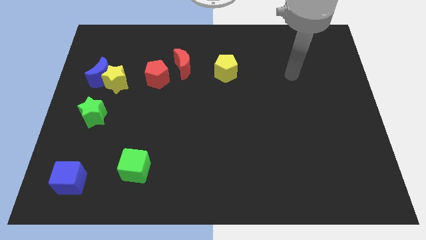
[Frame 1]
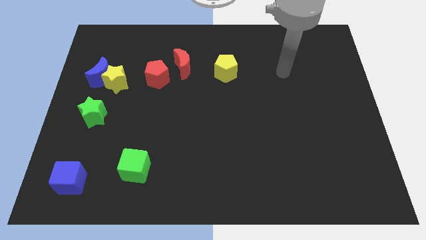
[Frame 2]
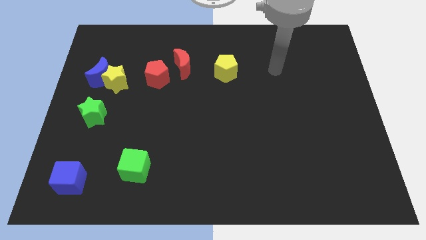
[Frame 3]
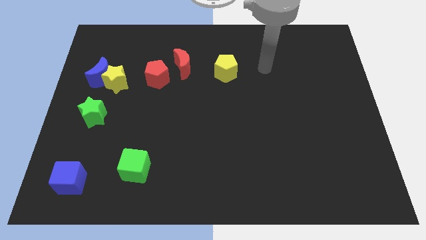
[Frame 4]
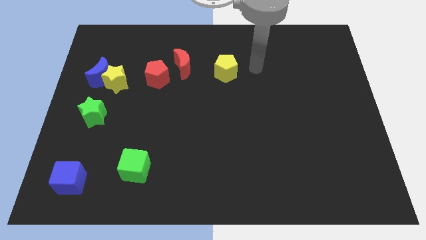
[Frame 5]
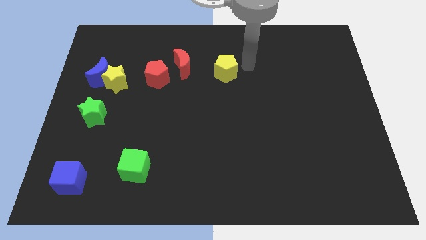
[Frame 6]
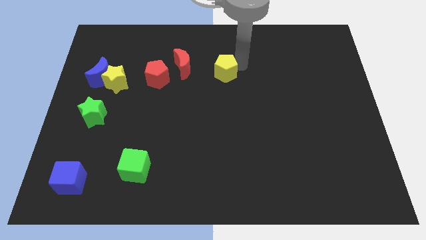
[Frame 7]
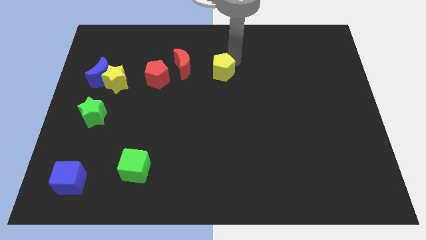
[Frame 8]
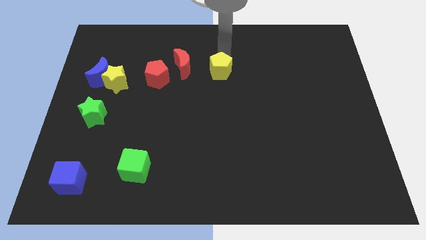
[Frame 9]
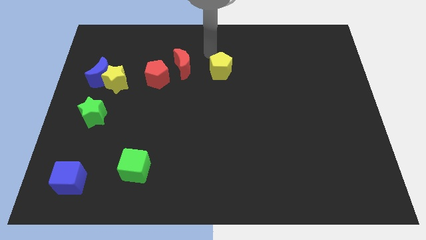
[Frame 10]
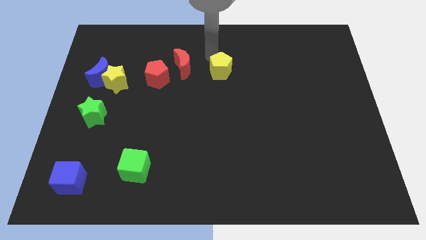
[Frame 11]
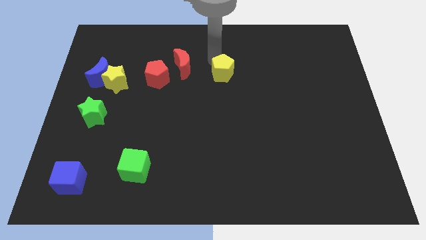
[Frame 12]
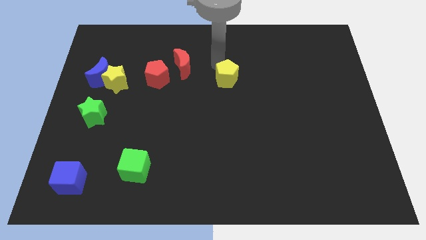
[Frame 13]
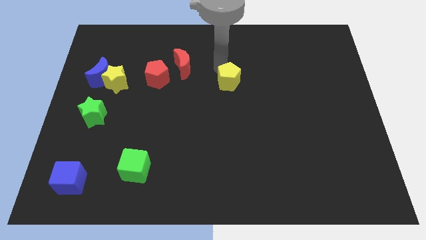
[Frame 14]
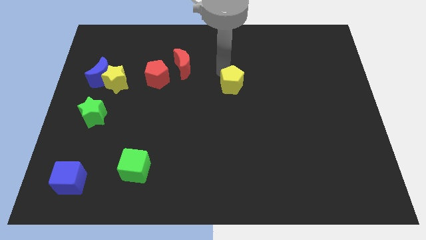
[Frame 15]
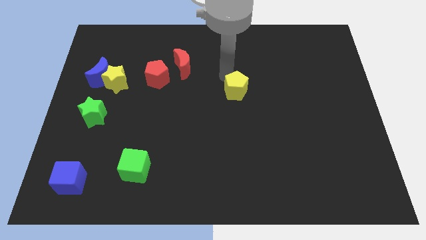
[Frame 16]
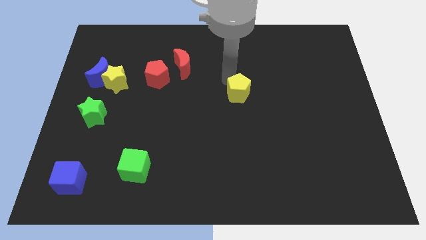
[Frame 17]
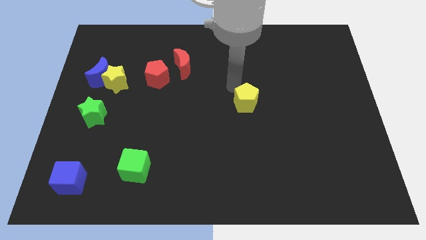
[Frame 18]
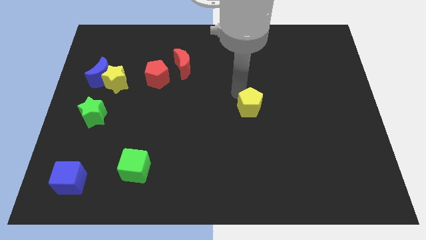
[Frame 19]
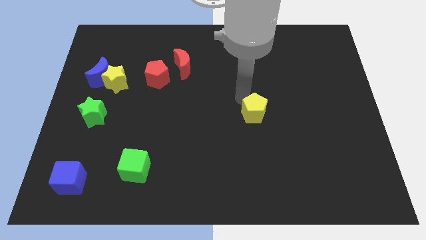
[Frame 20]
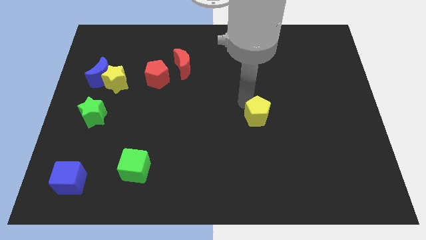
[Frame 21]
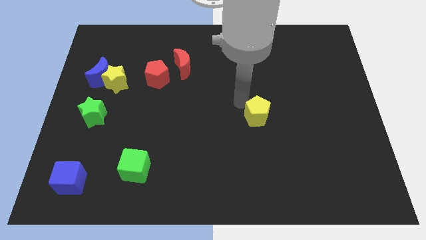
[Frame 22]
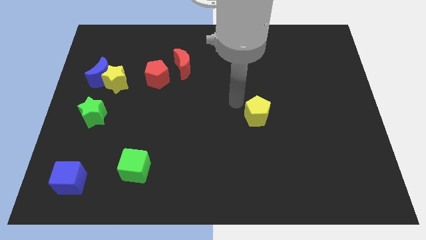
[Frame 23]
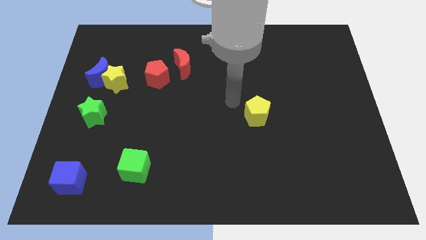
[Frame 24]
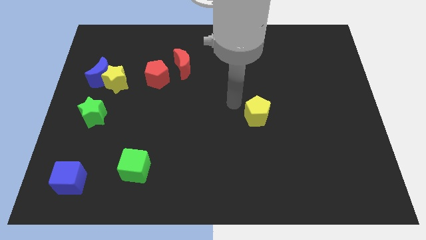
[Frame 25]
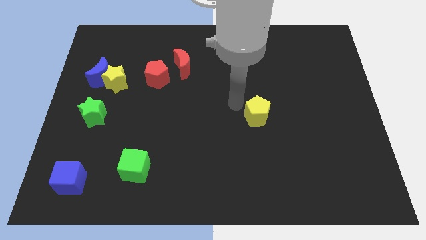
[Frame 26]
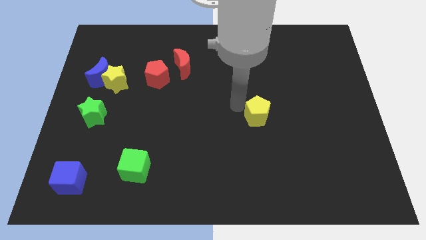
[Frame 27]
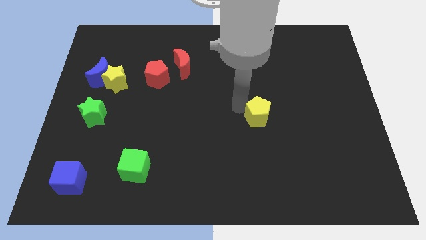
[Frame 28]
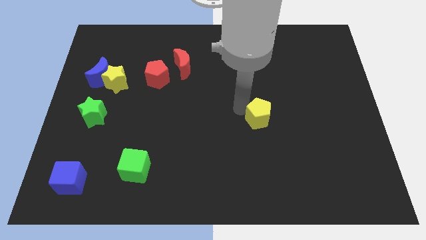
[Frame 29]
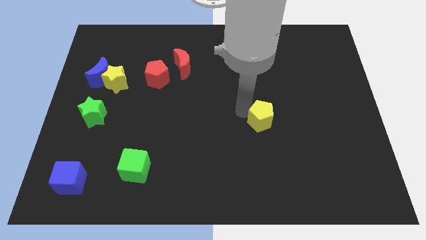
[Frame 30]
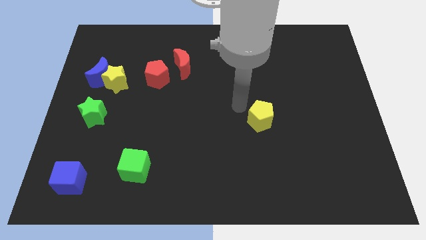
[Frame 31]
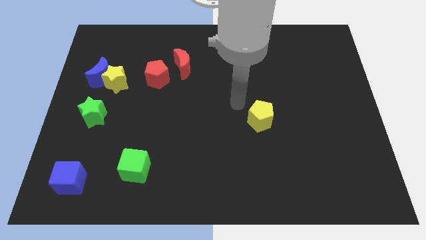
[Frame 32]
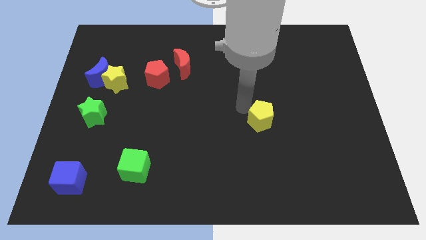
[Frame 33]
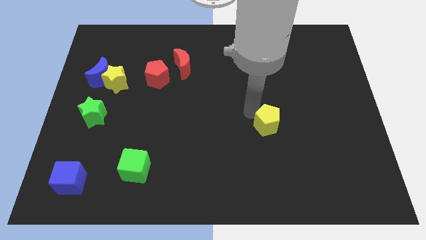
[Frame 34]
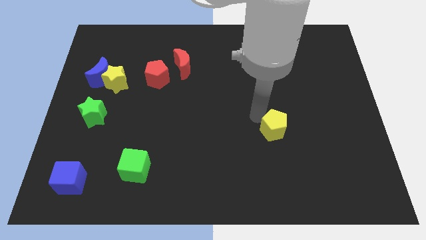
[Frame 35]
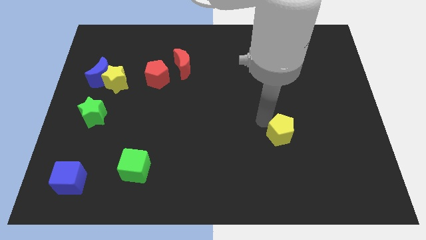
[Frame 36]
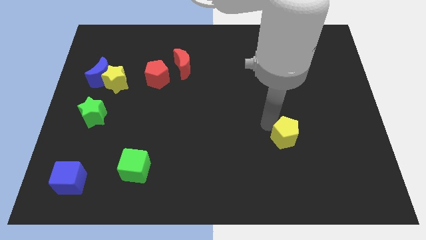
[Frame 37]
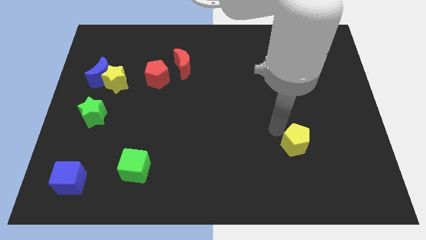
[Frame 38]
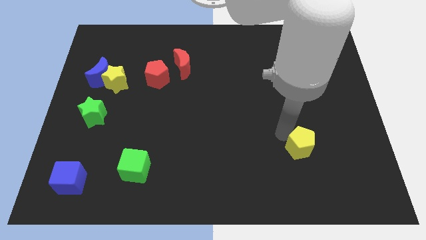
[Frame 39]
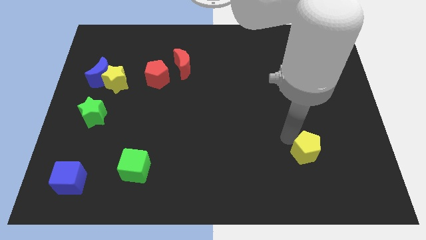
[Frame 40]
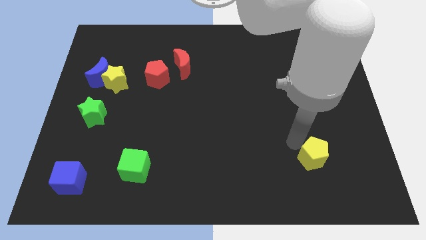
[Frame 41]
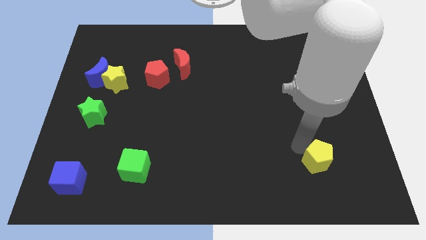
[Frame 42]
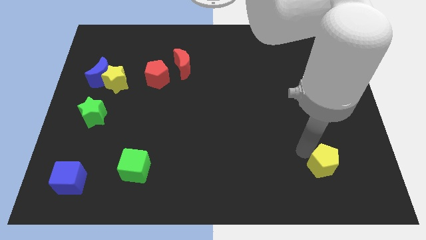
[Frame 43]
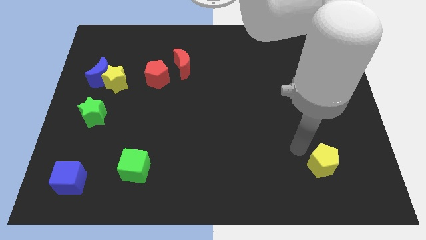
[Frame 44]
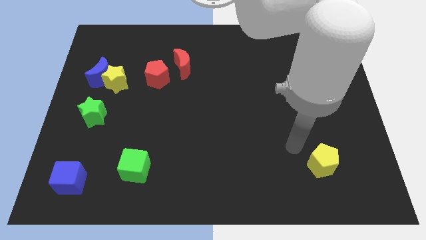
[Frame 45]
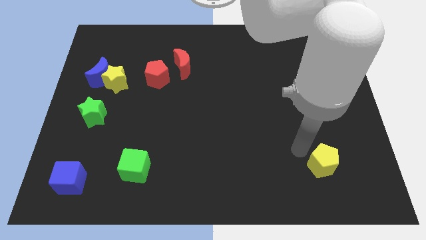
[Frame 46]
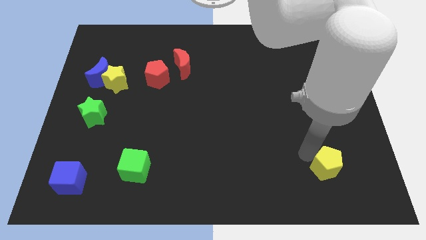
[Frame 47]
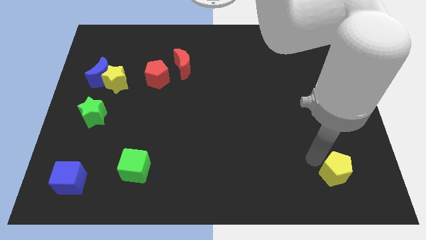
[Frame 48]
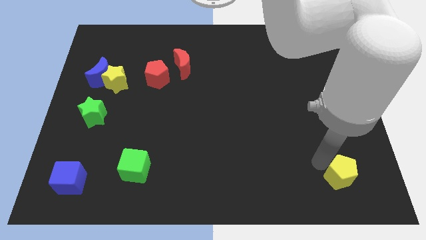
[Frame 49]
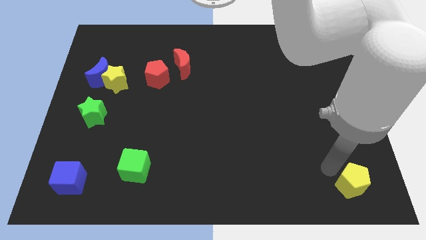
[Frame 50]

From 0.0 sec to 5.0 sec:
push the yellow pentagon to the bottom right
